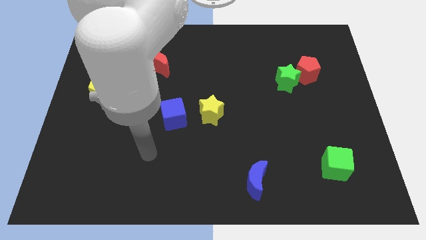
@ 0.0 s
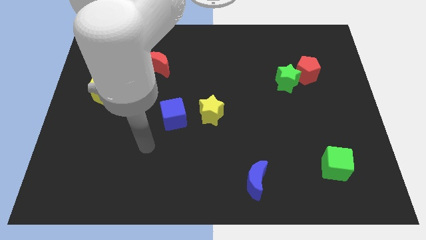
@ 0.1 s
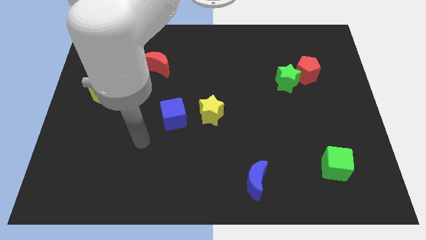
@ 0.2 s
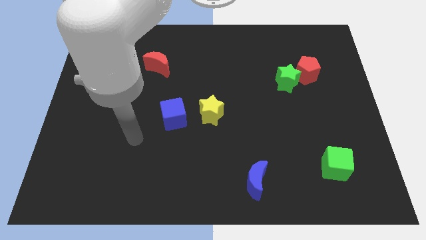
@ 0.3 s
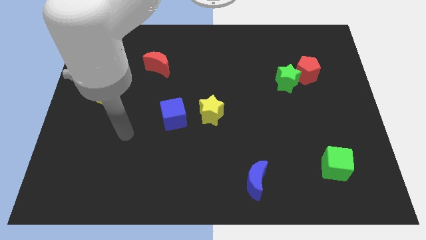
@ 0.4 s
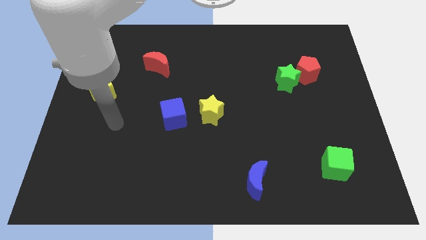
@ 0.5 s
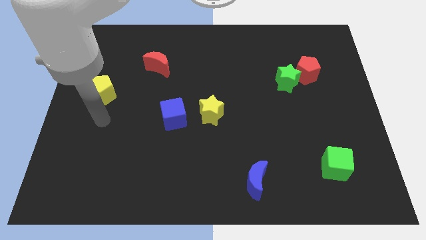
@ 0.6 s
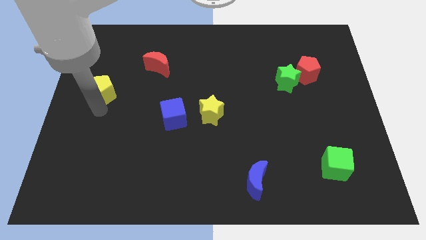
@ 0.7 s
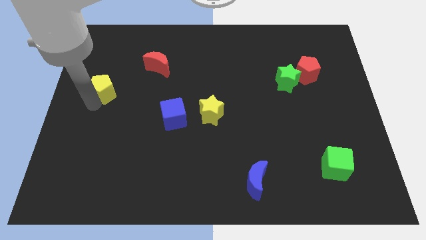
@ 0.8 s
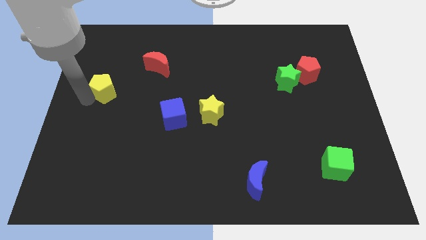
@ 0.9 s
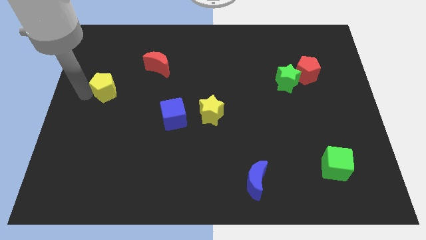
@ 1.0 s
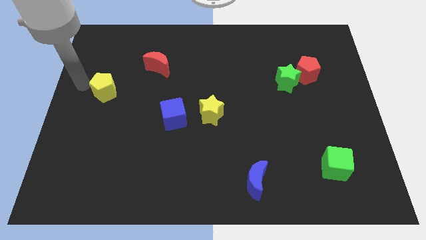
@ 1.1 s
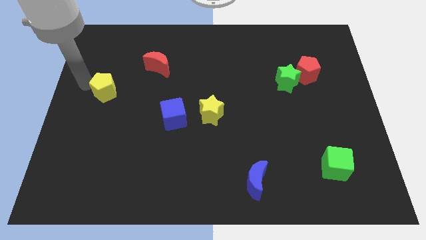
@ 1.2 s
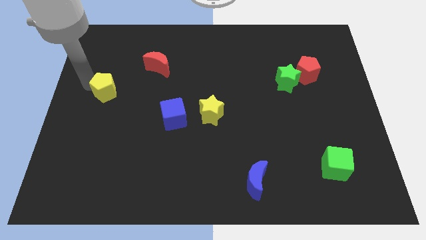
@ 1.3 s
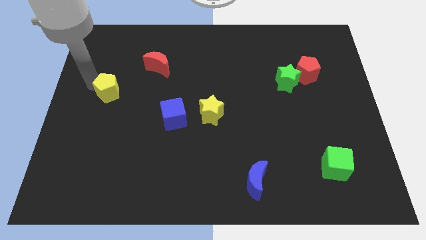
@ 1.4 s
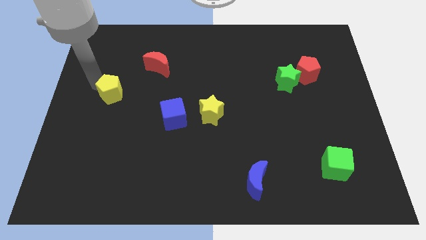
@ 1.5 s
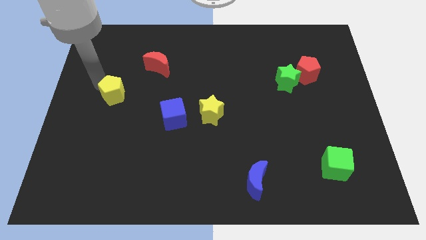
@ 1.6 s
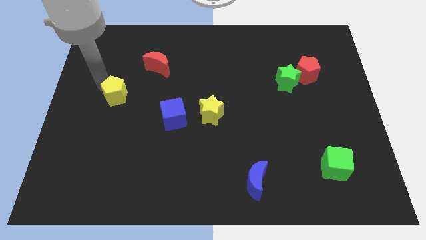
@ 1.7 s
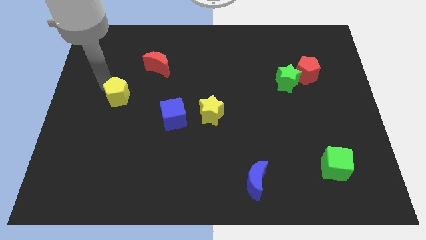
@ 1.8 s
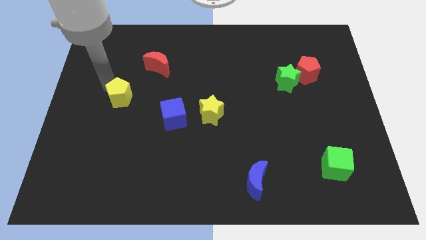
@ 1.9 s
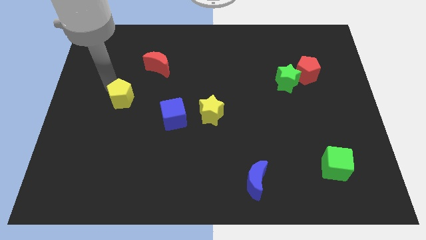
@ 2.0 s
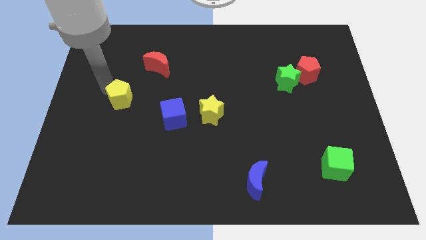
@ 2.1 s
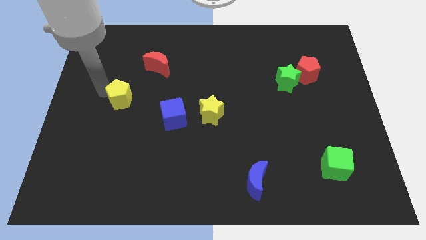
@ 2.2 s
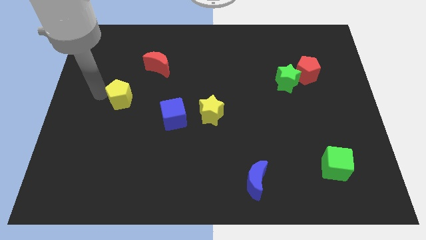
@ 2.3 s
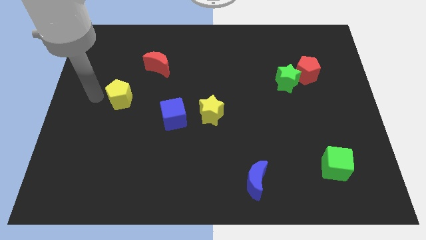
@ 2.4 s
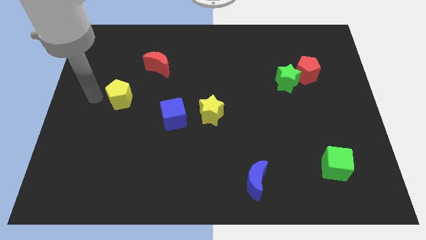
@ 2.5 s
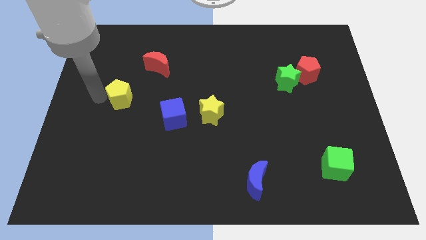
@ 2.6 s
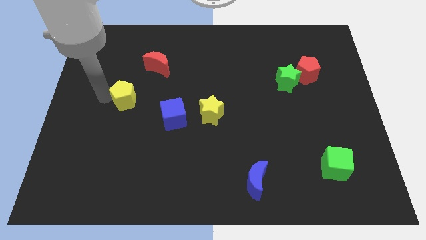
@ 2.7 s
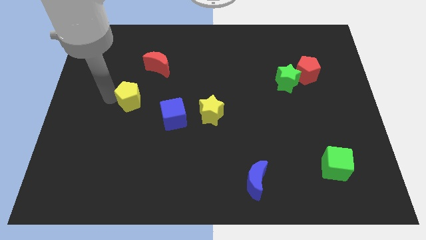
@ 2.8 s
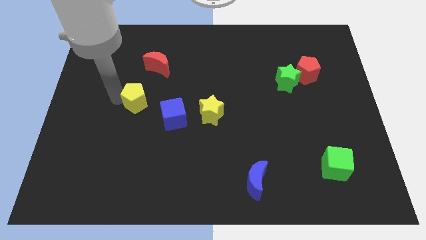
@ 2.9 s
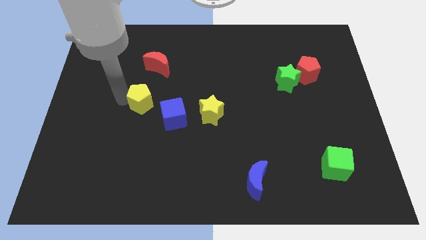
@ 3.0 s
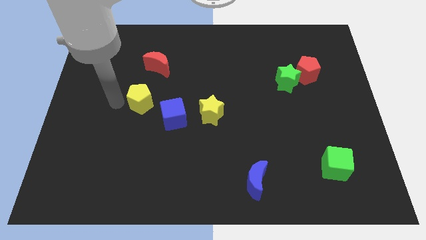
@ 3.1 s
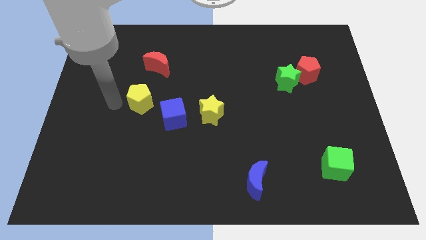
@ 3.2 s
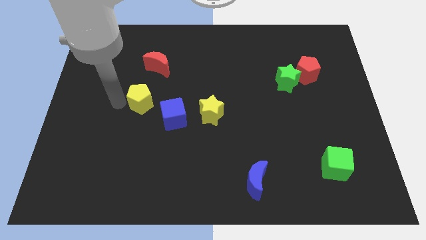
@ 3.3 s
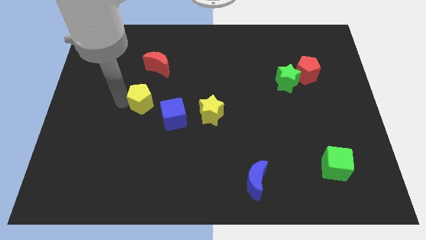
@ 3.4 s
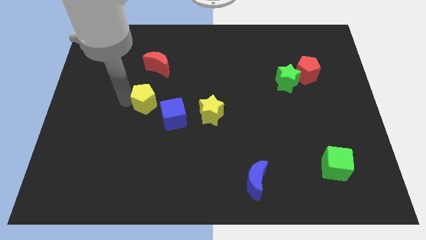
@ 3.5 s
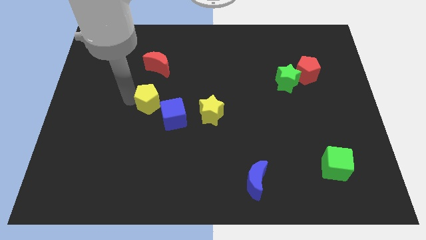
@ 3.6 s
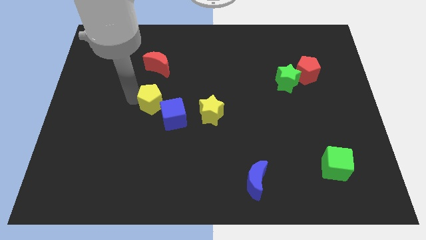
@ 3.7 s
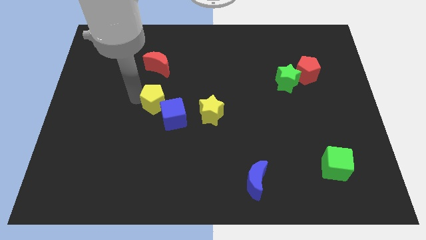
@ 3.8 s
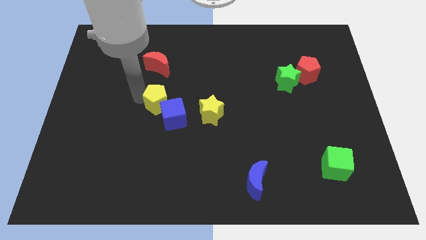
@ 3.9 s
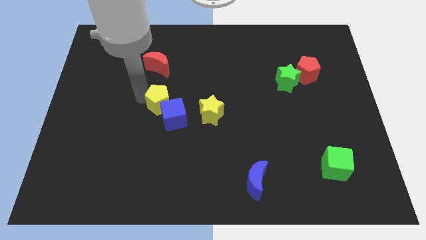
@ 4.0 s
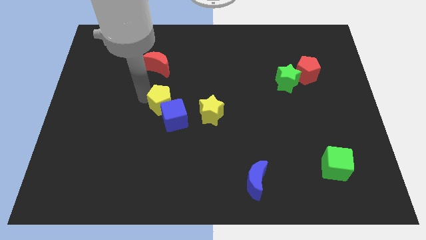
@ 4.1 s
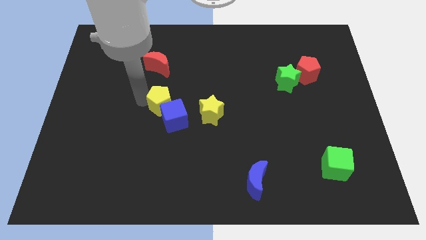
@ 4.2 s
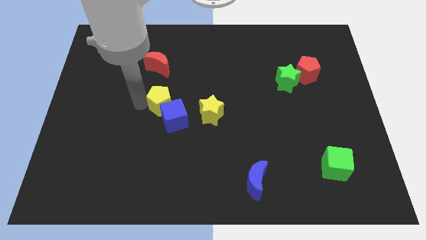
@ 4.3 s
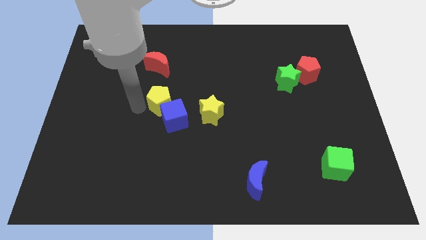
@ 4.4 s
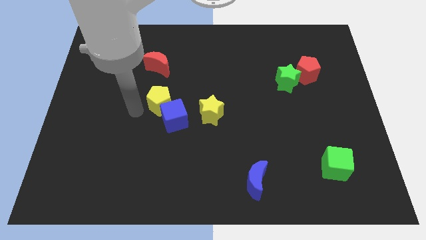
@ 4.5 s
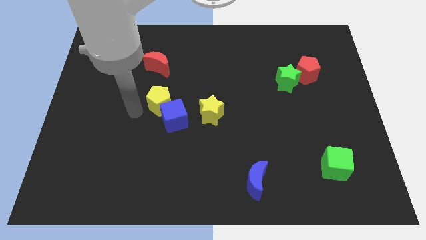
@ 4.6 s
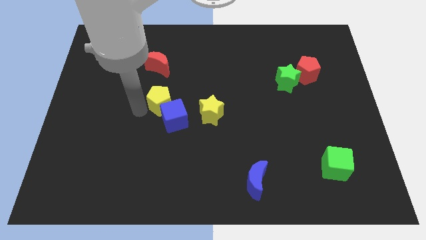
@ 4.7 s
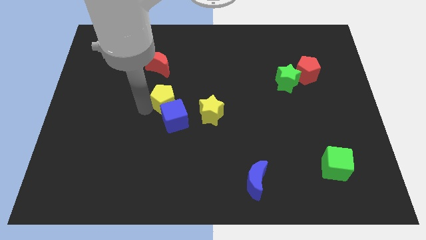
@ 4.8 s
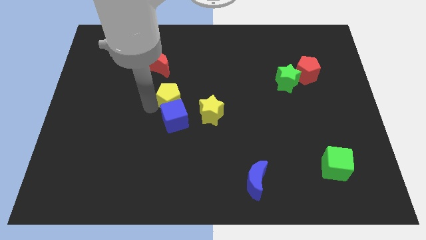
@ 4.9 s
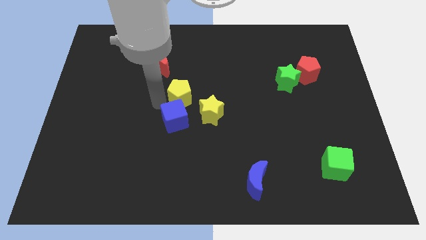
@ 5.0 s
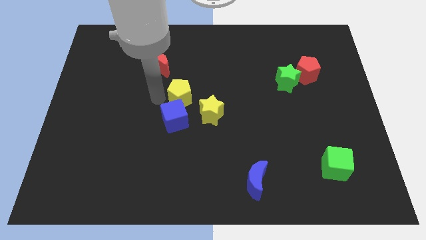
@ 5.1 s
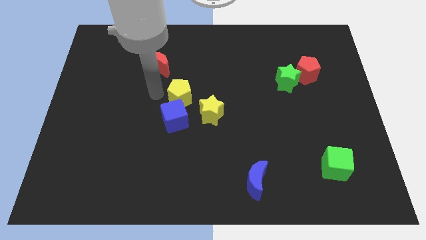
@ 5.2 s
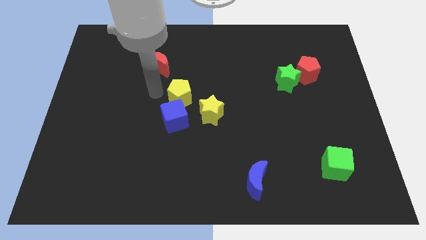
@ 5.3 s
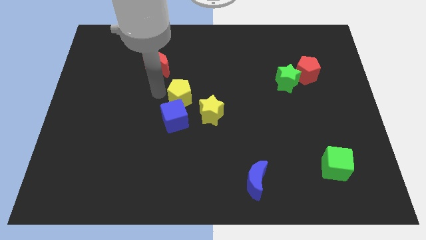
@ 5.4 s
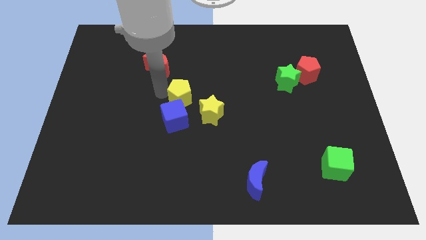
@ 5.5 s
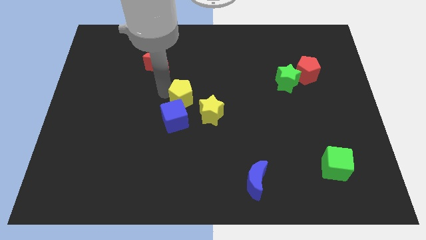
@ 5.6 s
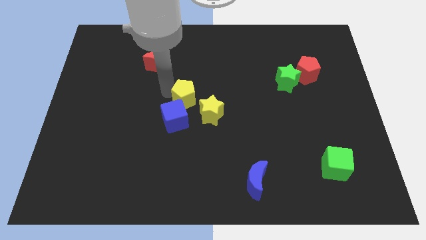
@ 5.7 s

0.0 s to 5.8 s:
push the yellow pentagon to the right

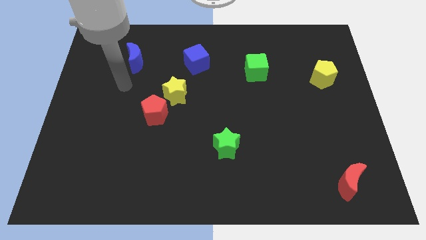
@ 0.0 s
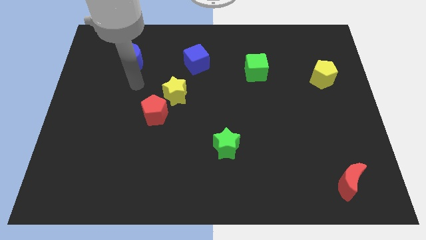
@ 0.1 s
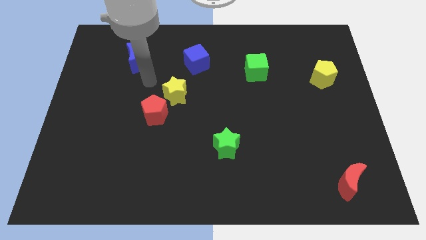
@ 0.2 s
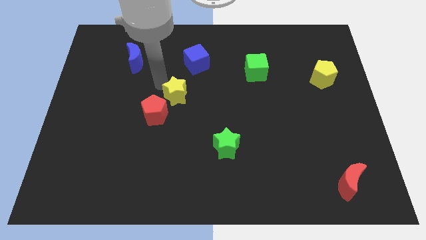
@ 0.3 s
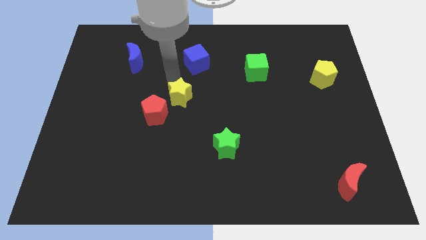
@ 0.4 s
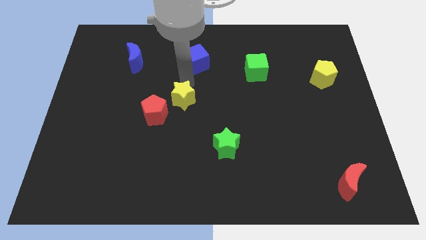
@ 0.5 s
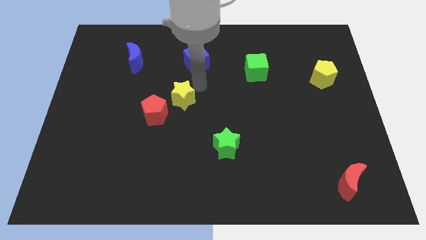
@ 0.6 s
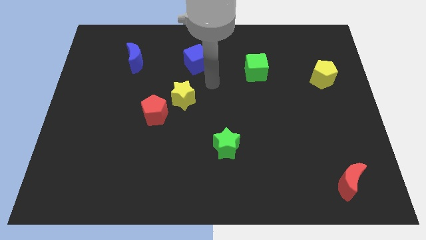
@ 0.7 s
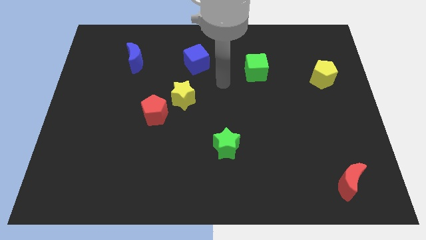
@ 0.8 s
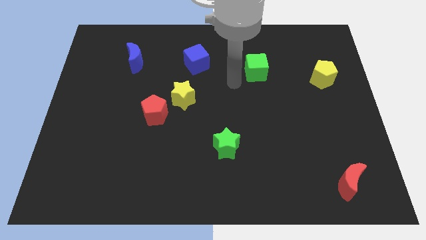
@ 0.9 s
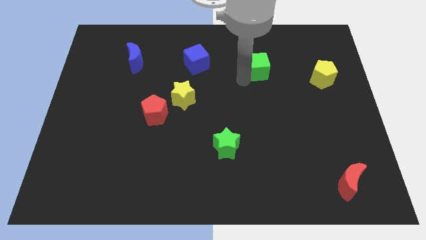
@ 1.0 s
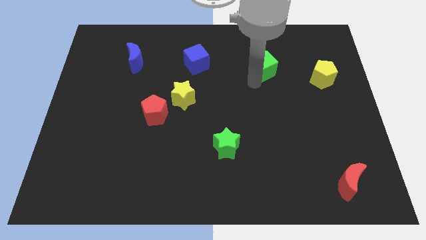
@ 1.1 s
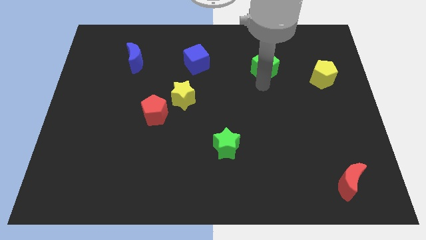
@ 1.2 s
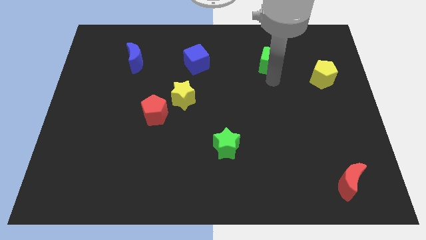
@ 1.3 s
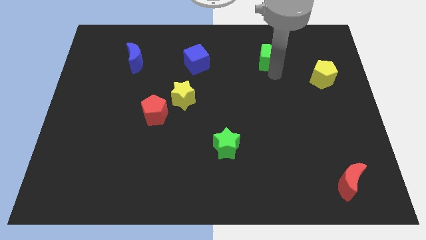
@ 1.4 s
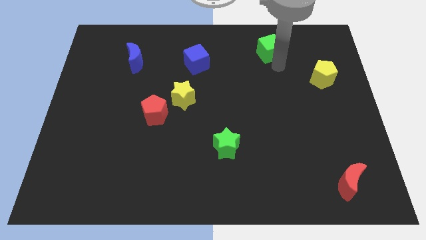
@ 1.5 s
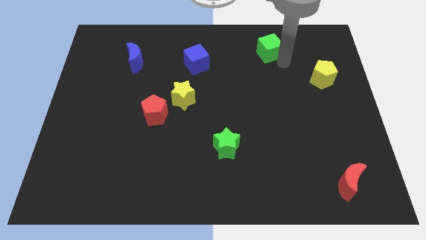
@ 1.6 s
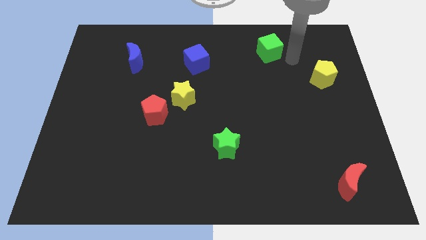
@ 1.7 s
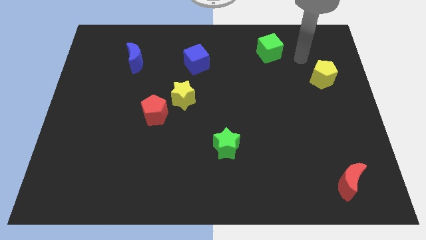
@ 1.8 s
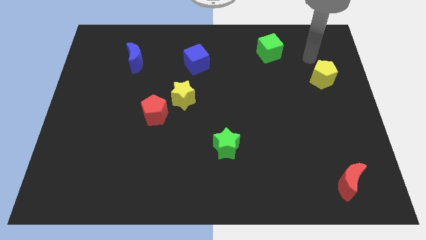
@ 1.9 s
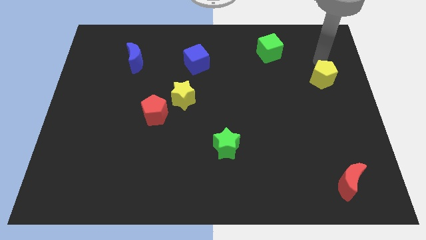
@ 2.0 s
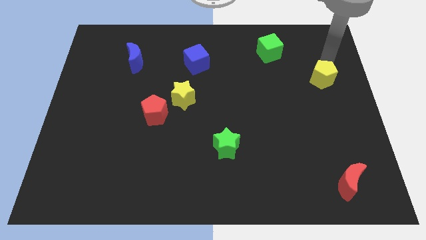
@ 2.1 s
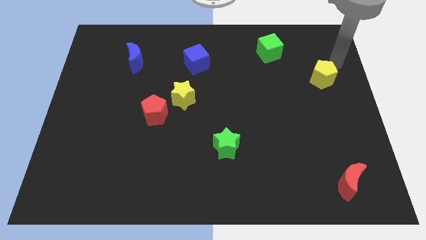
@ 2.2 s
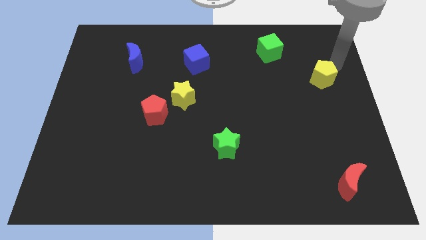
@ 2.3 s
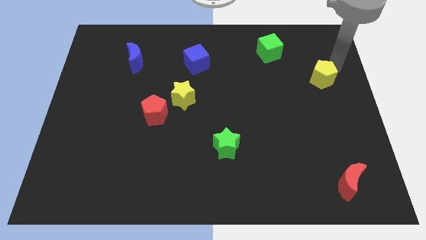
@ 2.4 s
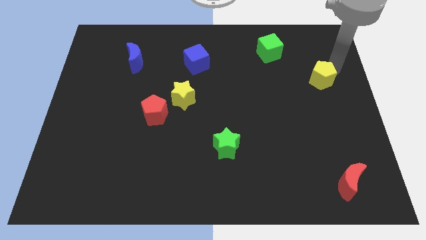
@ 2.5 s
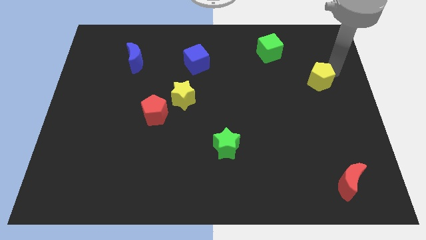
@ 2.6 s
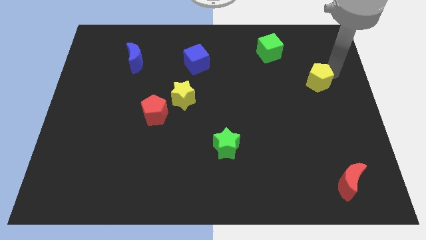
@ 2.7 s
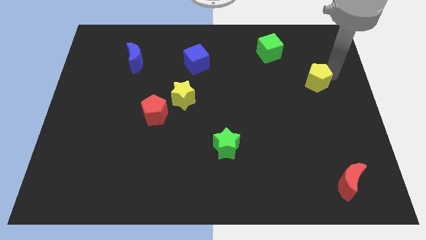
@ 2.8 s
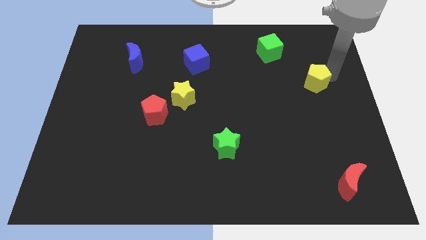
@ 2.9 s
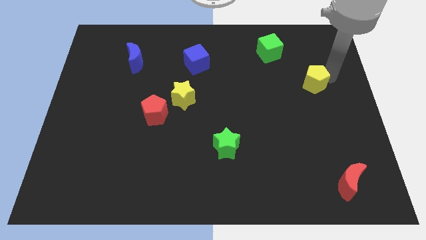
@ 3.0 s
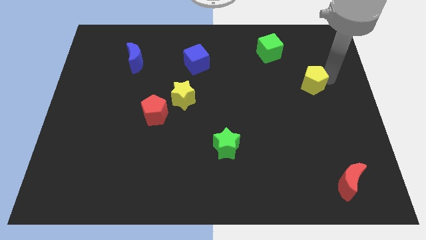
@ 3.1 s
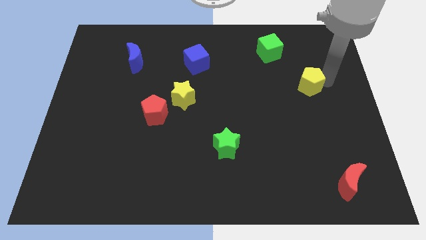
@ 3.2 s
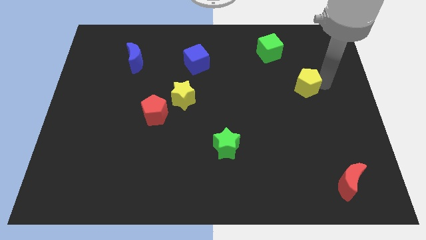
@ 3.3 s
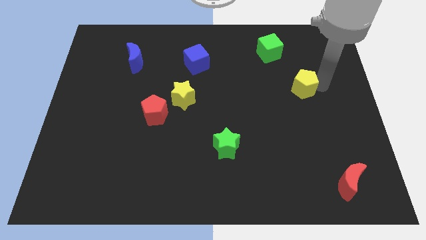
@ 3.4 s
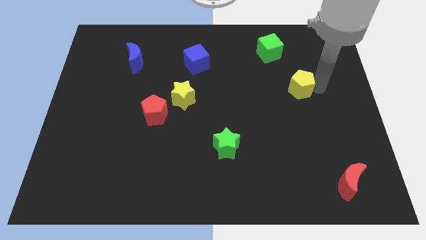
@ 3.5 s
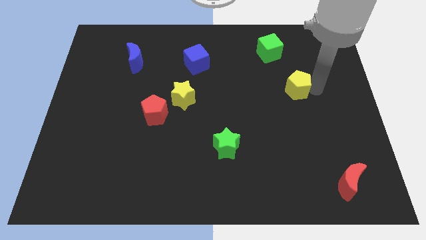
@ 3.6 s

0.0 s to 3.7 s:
slide the yellow pentagon a little bit downwards and left
